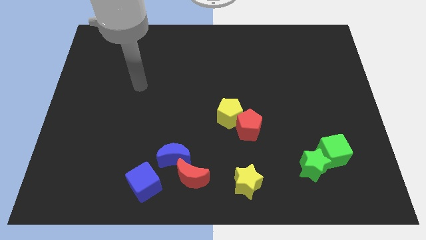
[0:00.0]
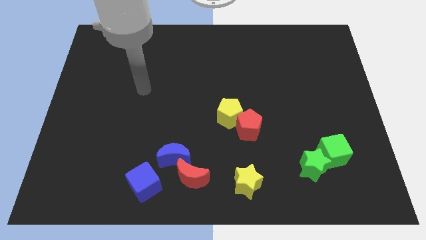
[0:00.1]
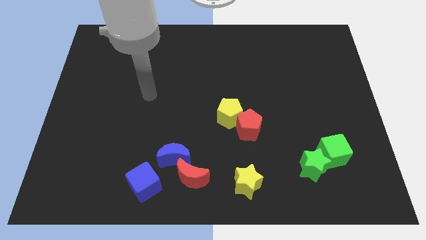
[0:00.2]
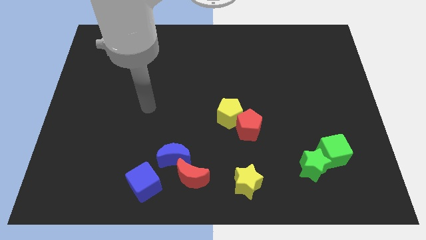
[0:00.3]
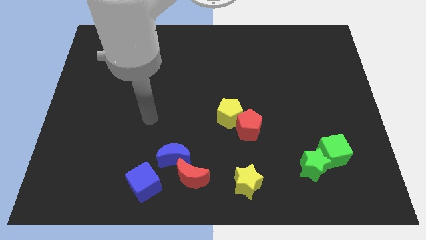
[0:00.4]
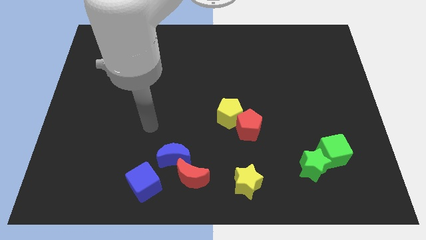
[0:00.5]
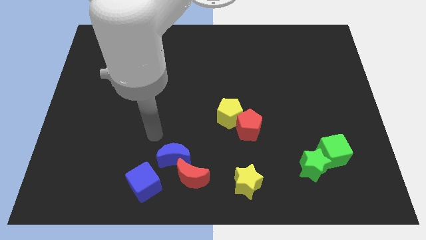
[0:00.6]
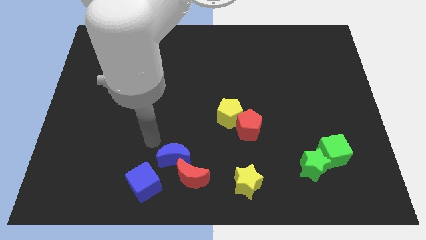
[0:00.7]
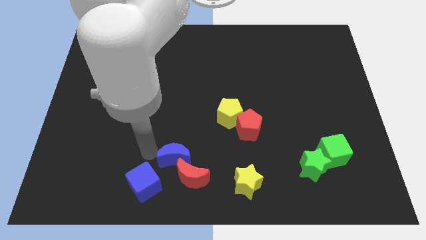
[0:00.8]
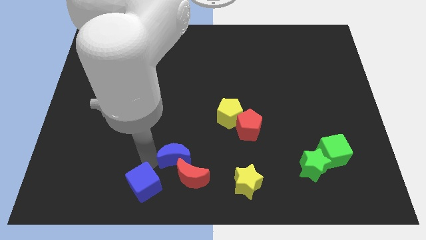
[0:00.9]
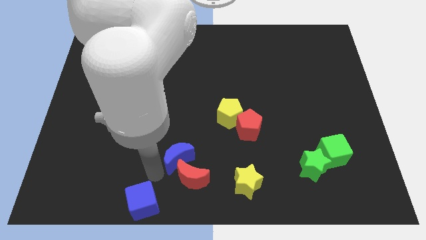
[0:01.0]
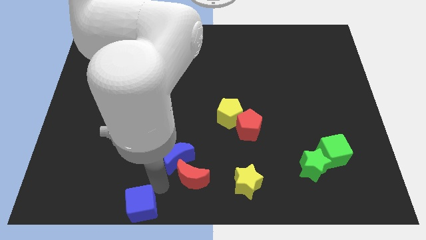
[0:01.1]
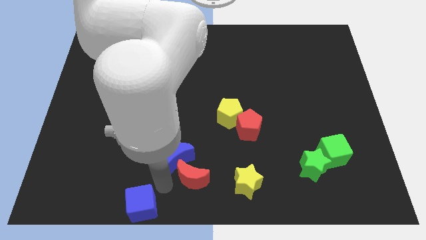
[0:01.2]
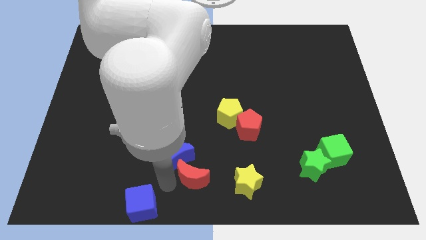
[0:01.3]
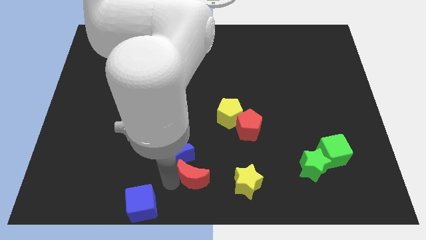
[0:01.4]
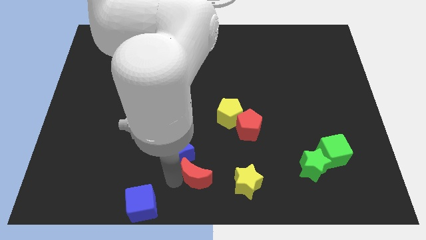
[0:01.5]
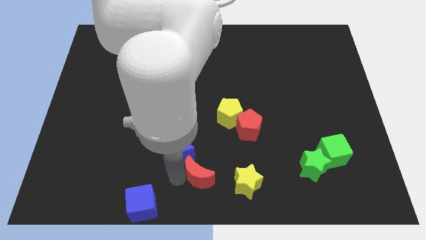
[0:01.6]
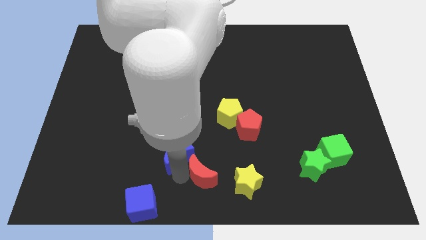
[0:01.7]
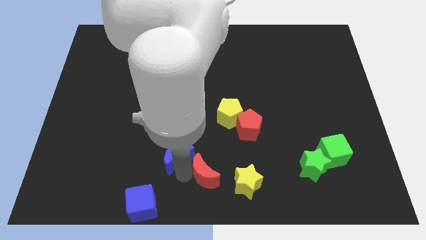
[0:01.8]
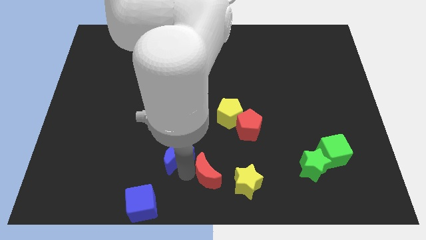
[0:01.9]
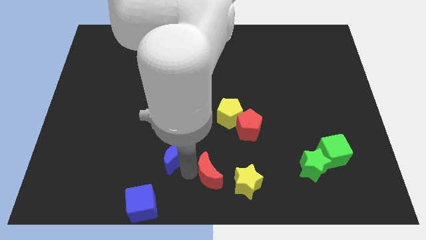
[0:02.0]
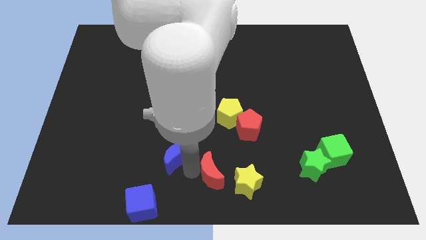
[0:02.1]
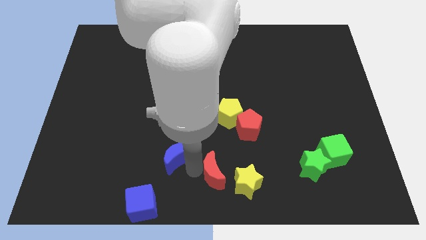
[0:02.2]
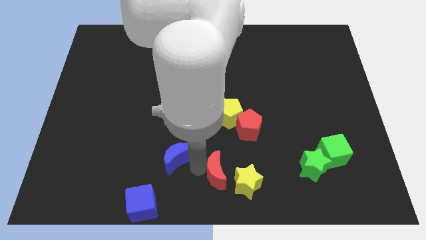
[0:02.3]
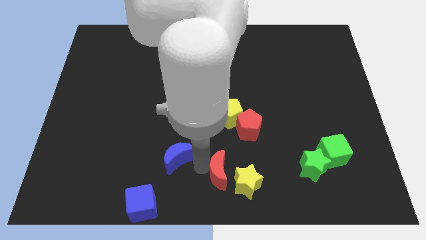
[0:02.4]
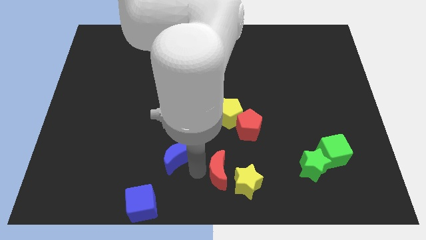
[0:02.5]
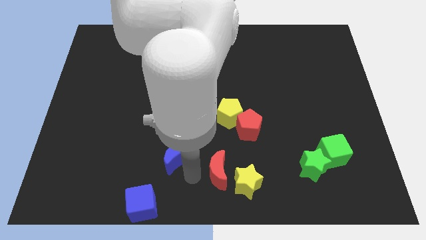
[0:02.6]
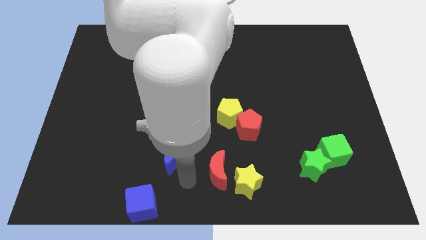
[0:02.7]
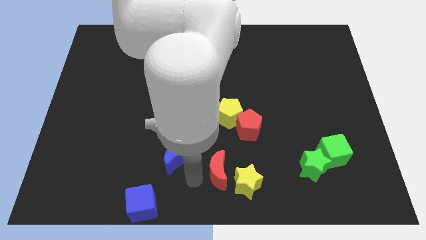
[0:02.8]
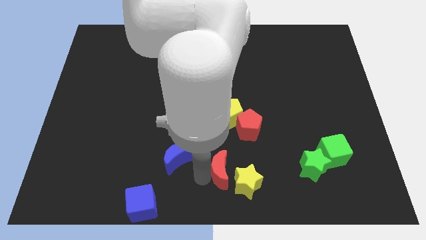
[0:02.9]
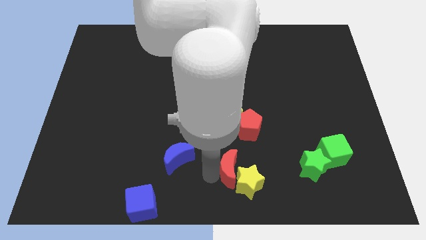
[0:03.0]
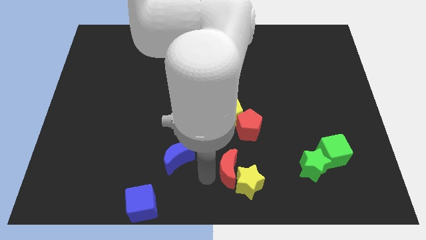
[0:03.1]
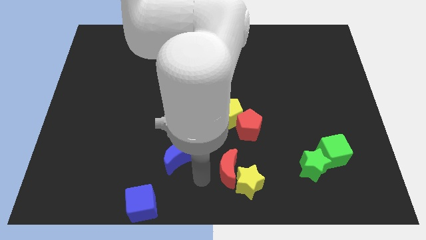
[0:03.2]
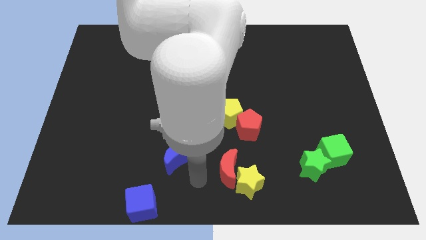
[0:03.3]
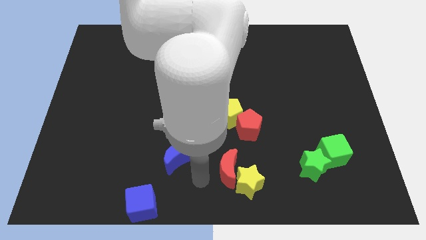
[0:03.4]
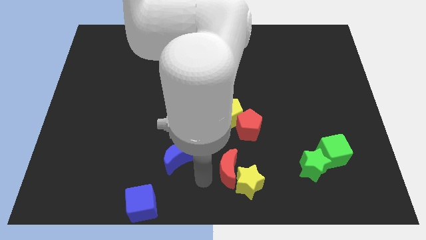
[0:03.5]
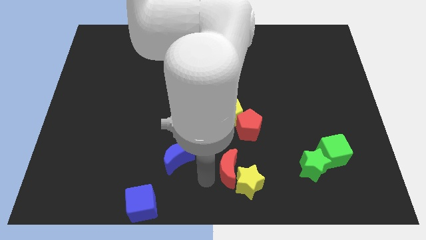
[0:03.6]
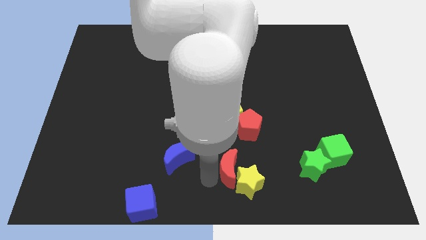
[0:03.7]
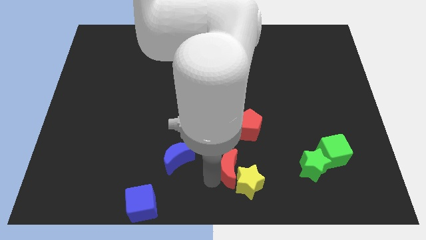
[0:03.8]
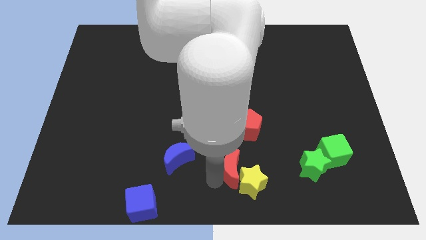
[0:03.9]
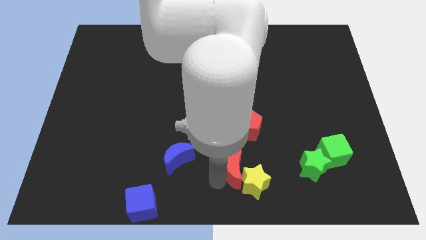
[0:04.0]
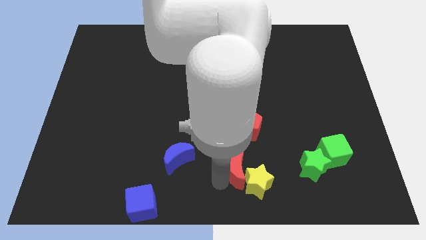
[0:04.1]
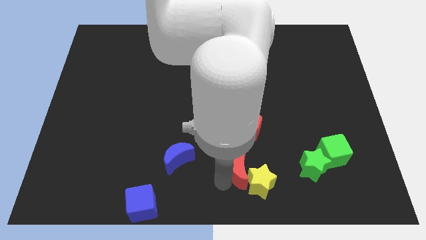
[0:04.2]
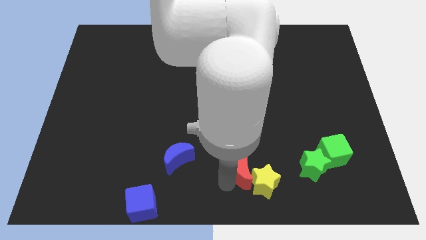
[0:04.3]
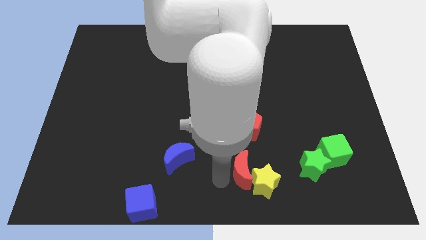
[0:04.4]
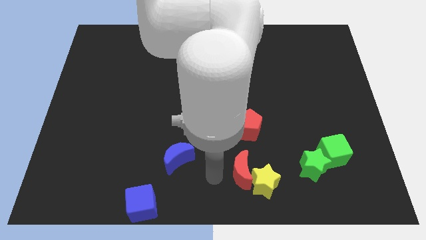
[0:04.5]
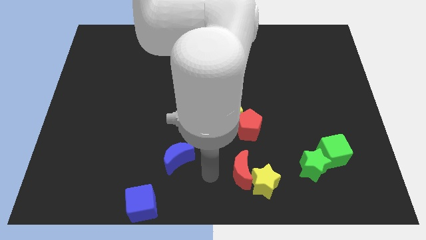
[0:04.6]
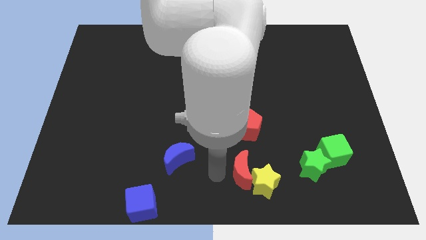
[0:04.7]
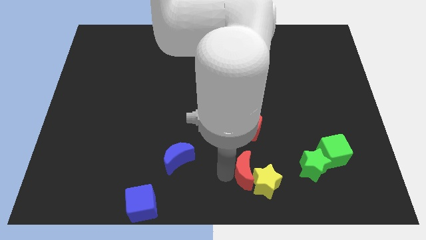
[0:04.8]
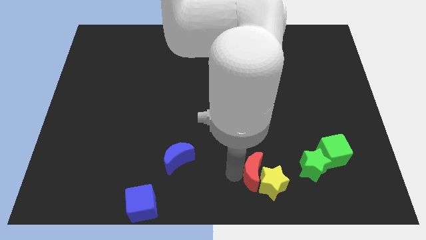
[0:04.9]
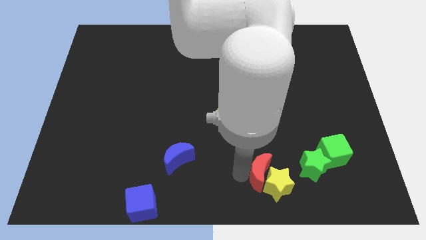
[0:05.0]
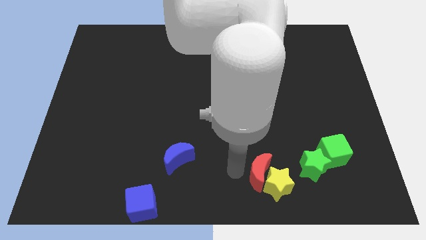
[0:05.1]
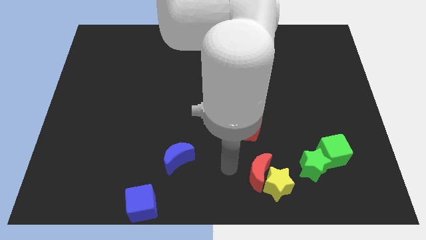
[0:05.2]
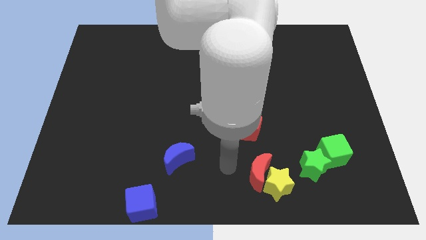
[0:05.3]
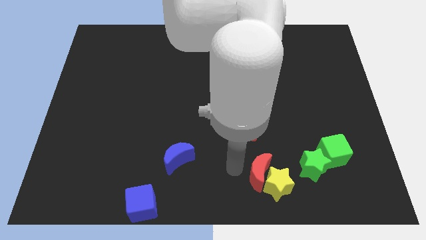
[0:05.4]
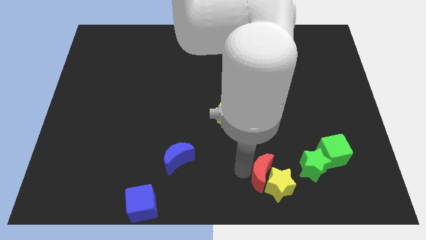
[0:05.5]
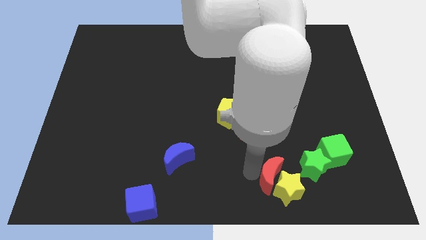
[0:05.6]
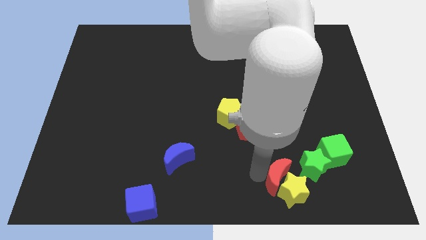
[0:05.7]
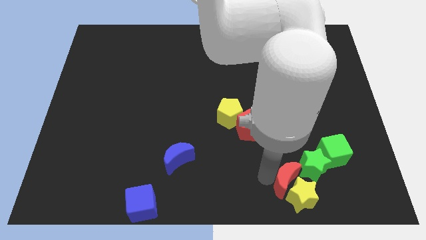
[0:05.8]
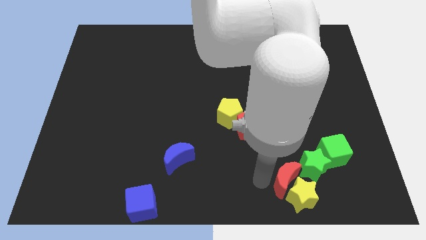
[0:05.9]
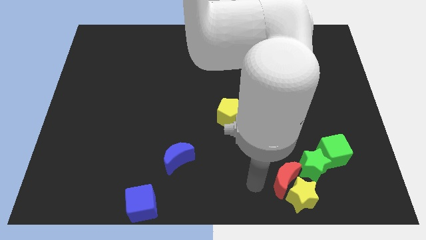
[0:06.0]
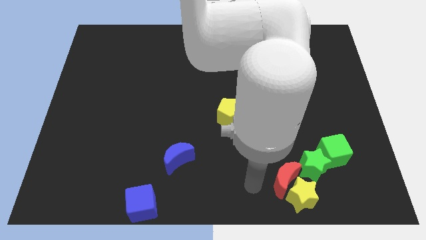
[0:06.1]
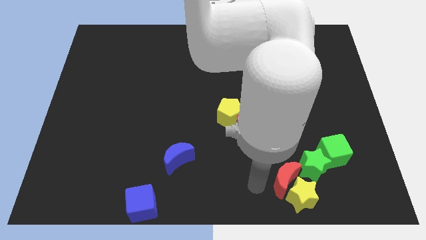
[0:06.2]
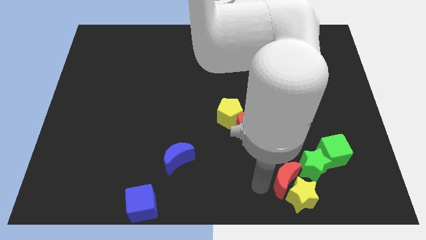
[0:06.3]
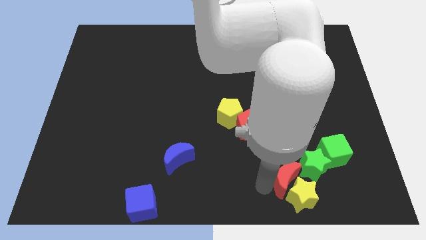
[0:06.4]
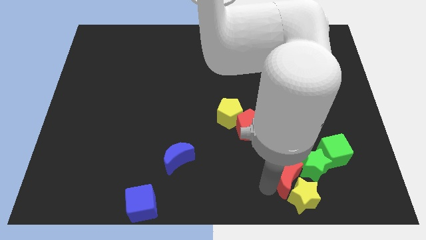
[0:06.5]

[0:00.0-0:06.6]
slide the red moon to the bottom left side of the green cube
